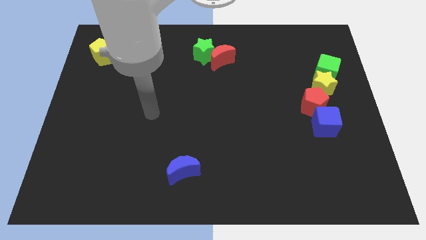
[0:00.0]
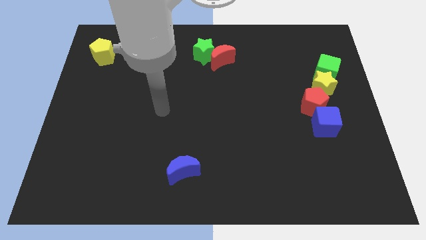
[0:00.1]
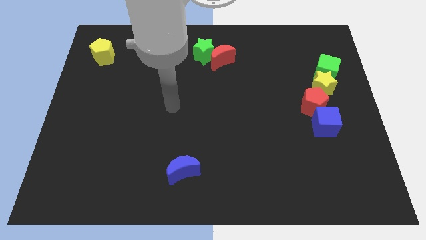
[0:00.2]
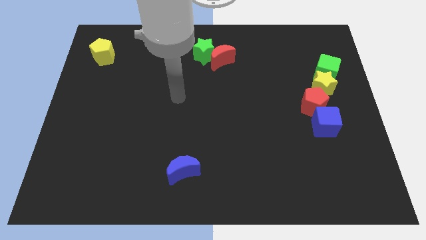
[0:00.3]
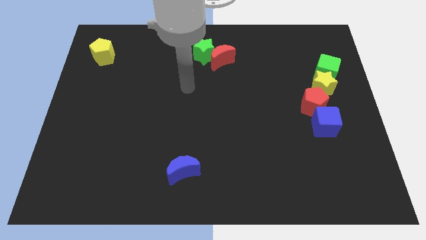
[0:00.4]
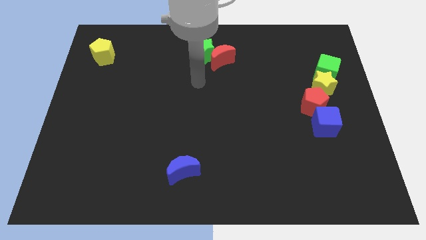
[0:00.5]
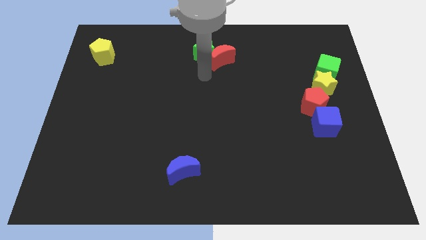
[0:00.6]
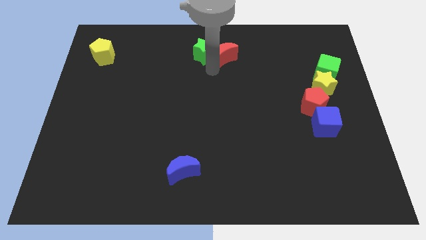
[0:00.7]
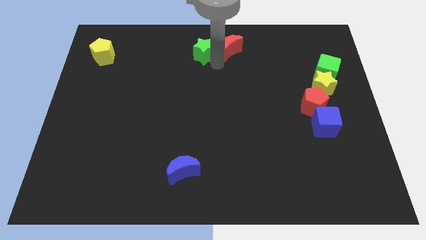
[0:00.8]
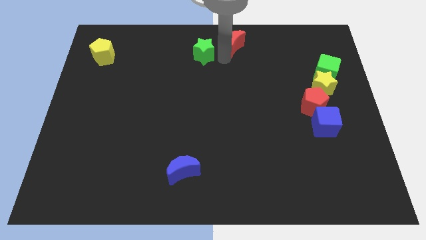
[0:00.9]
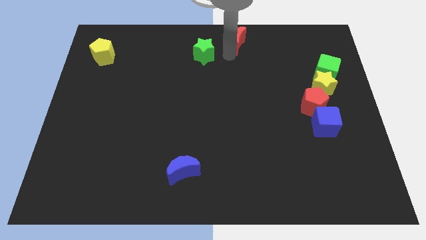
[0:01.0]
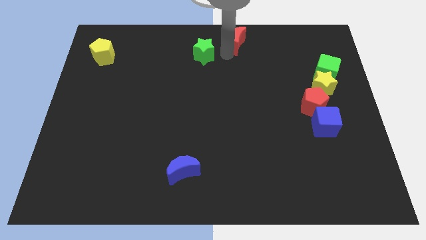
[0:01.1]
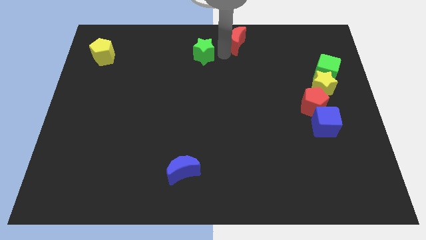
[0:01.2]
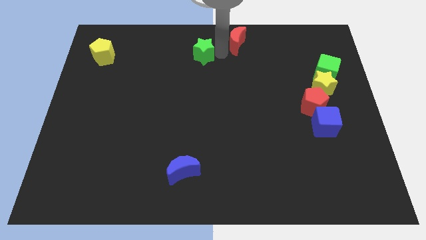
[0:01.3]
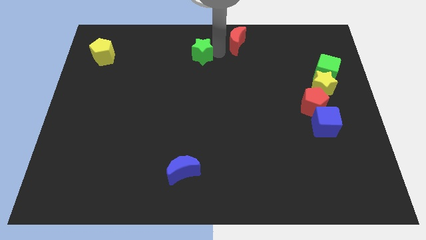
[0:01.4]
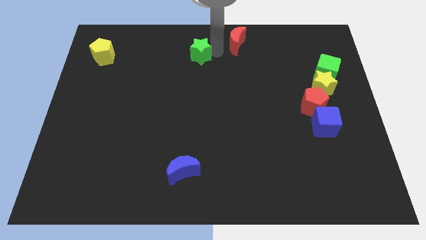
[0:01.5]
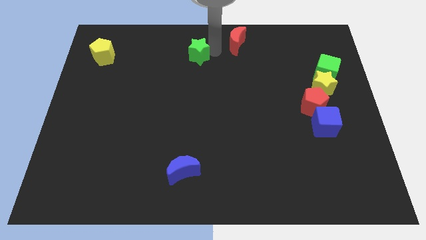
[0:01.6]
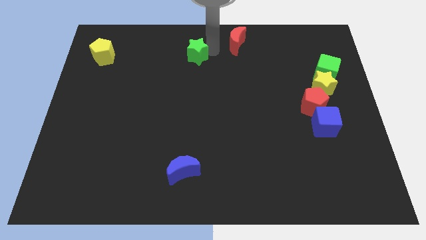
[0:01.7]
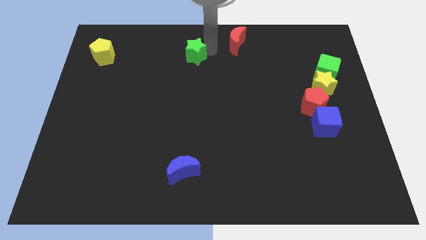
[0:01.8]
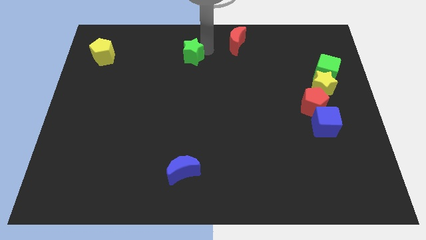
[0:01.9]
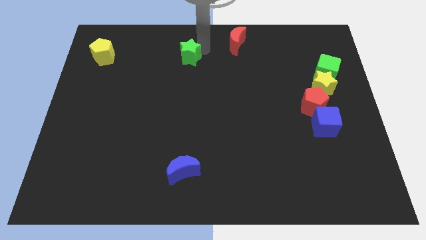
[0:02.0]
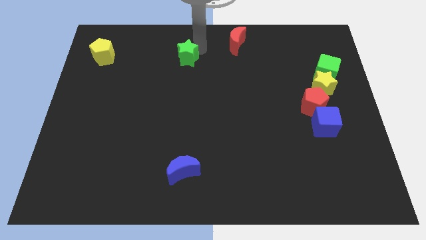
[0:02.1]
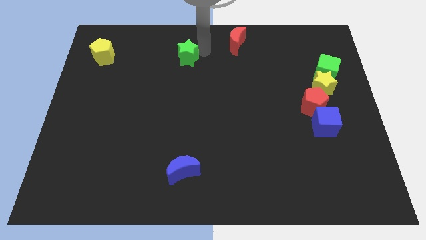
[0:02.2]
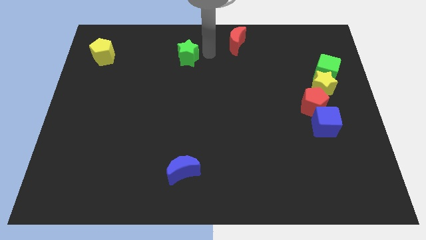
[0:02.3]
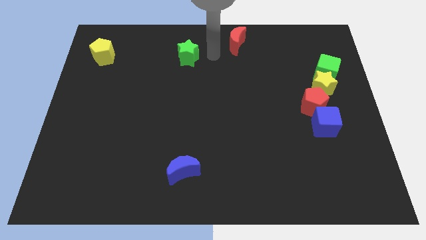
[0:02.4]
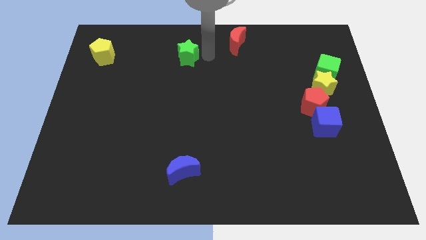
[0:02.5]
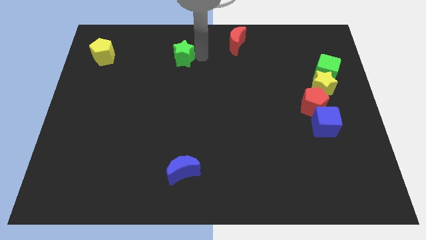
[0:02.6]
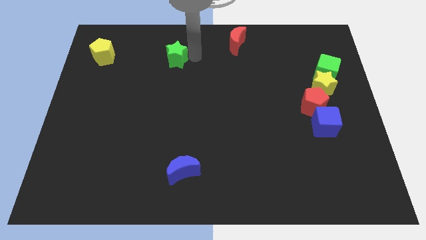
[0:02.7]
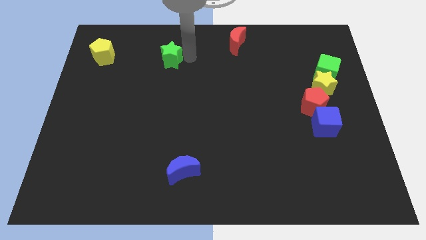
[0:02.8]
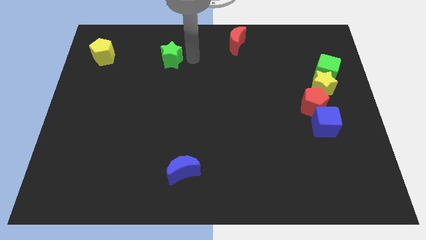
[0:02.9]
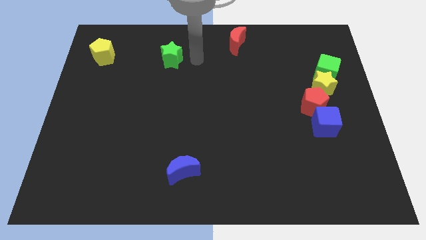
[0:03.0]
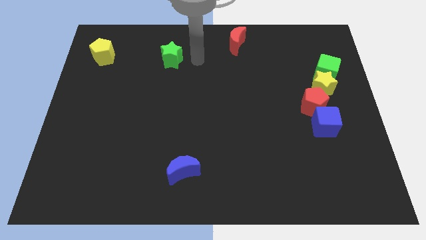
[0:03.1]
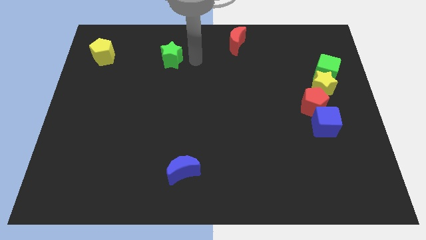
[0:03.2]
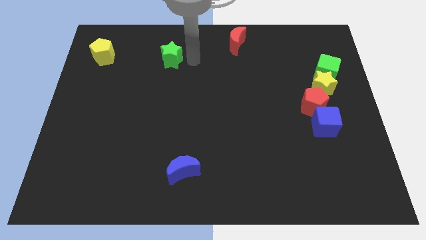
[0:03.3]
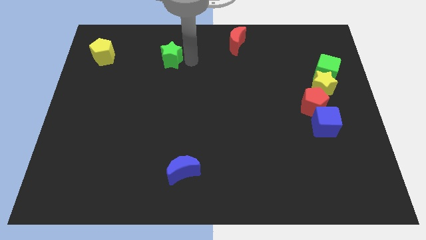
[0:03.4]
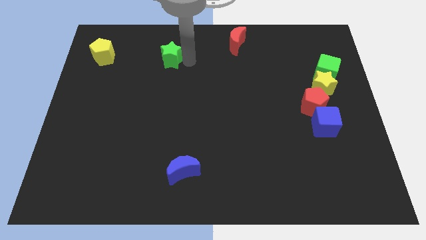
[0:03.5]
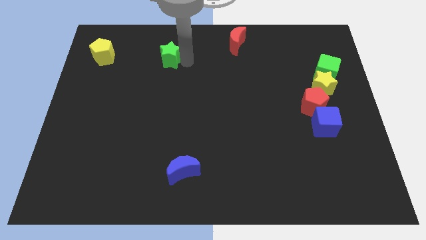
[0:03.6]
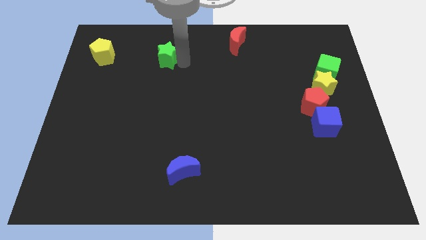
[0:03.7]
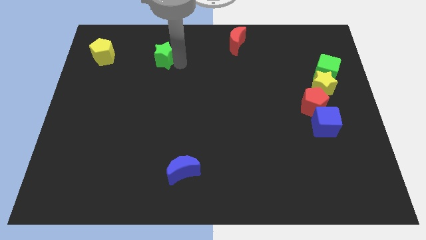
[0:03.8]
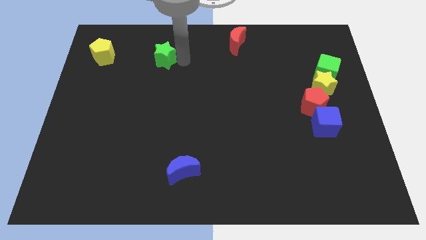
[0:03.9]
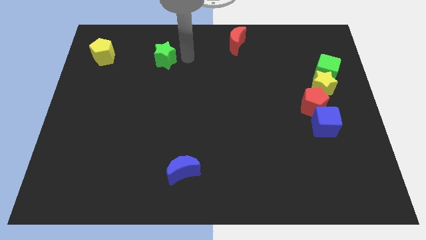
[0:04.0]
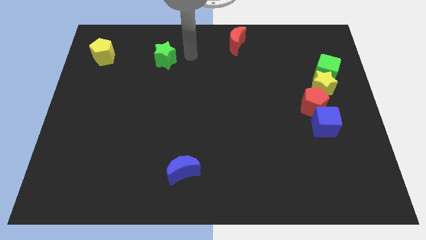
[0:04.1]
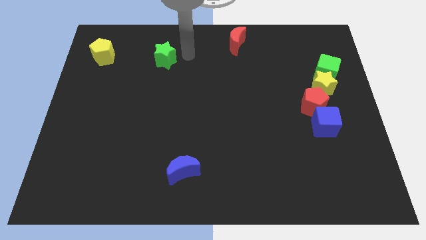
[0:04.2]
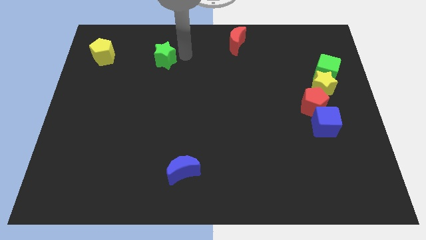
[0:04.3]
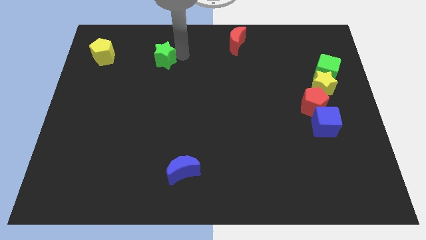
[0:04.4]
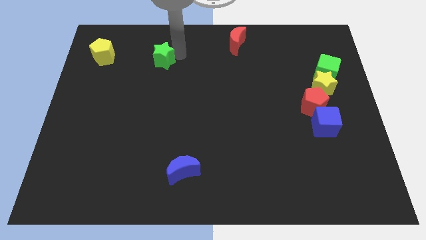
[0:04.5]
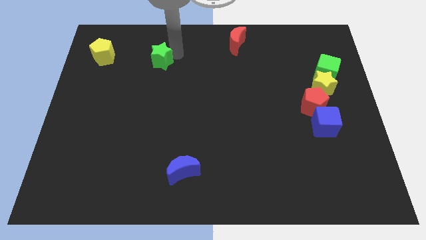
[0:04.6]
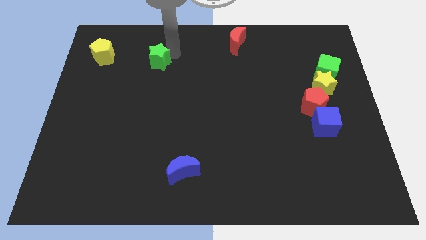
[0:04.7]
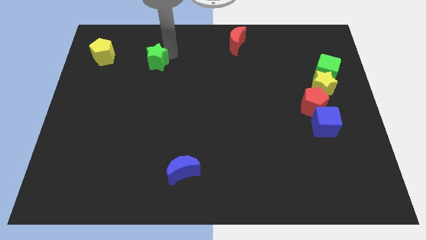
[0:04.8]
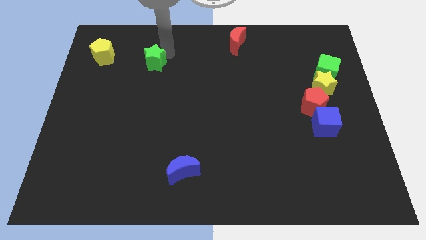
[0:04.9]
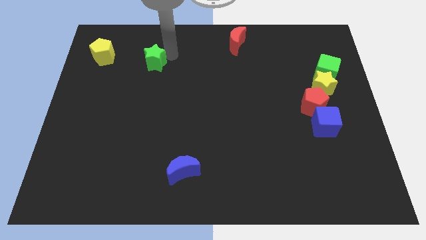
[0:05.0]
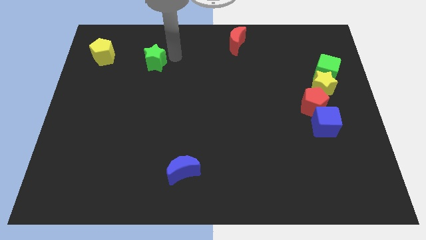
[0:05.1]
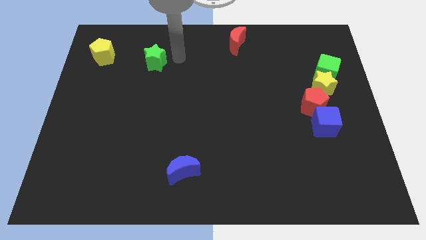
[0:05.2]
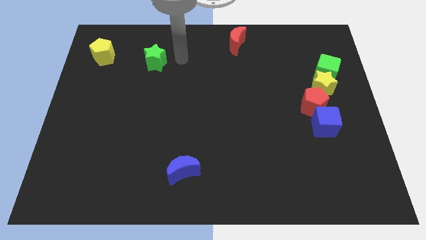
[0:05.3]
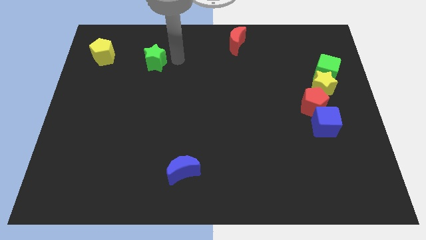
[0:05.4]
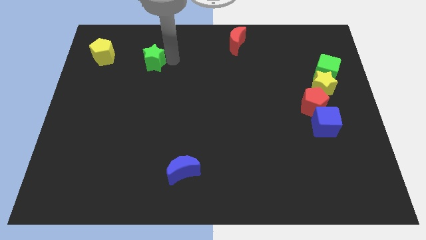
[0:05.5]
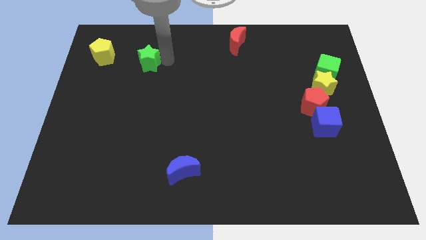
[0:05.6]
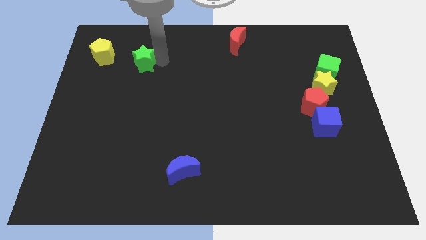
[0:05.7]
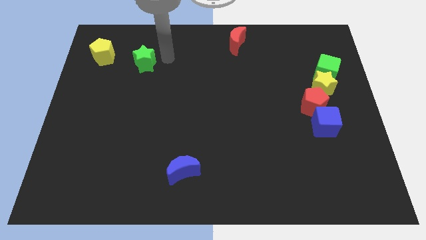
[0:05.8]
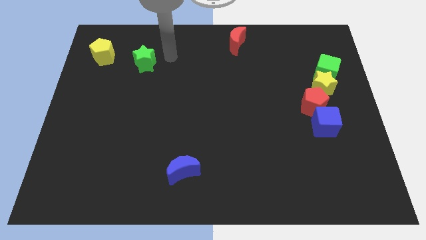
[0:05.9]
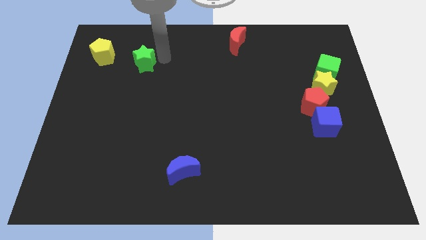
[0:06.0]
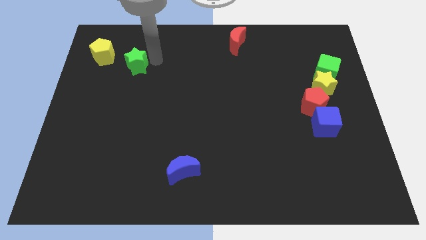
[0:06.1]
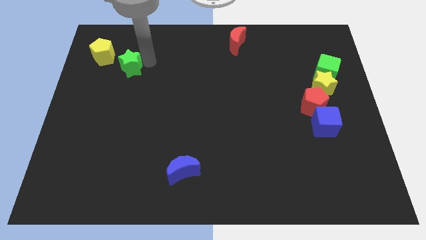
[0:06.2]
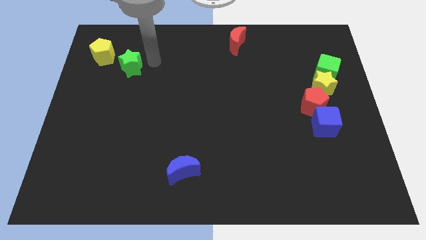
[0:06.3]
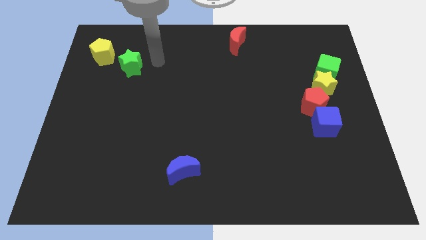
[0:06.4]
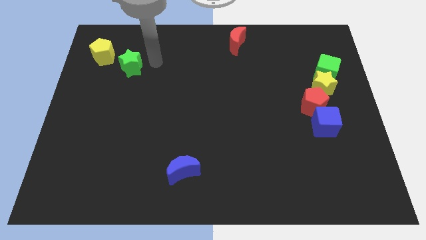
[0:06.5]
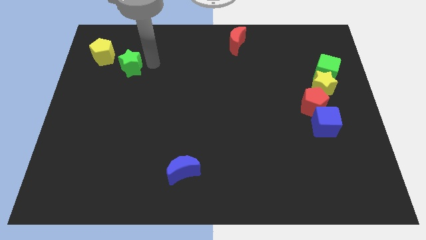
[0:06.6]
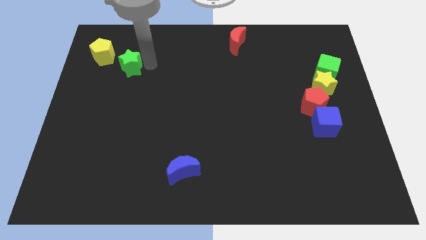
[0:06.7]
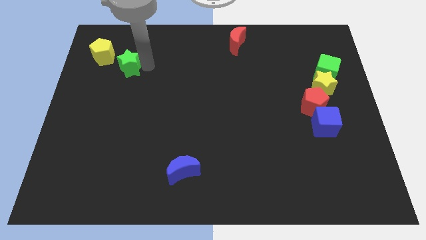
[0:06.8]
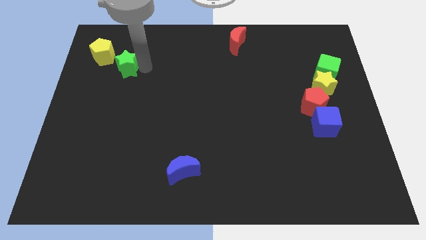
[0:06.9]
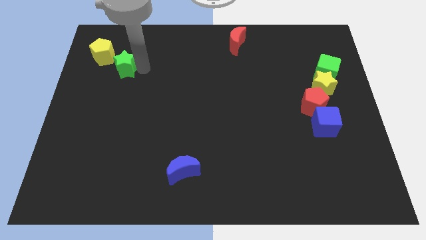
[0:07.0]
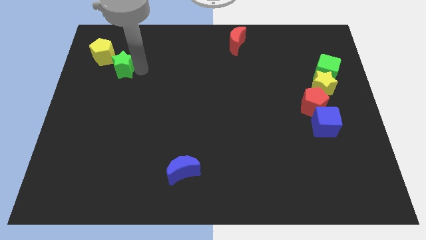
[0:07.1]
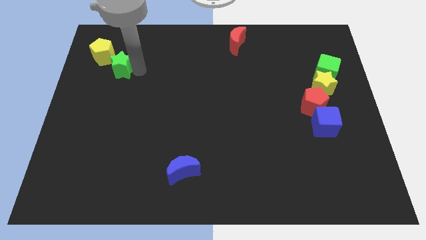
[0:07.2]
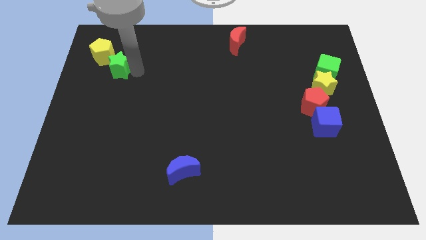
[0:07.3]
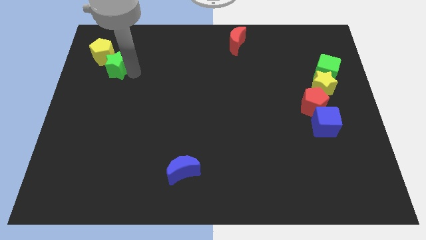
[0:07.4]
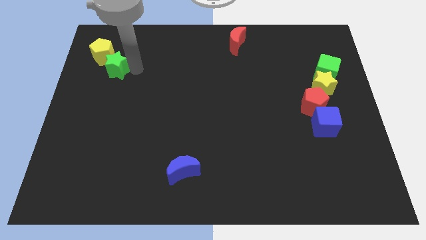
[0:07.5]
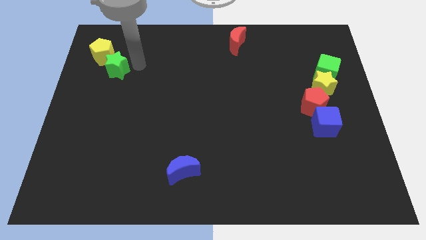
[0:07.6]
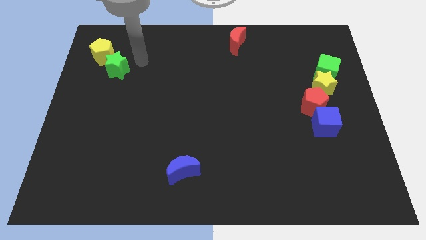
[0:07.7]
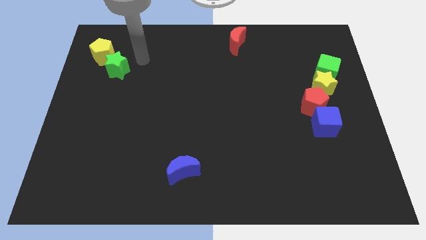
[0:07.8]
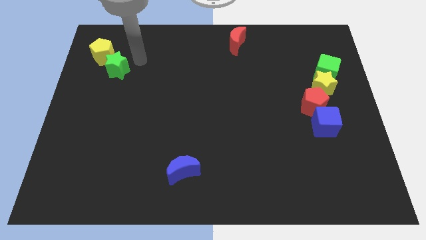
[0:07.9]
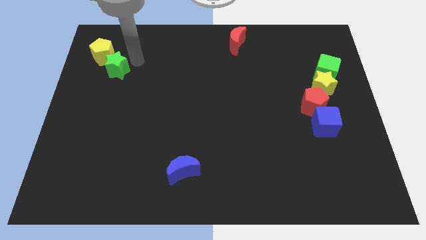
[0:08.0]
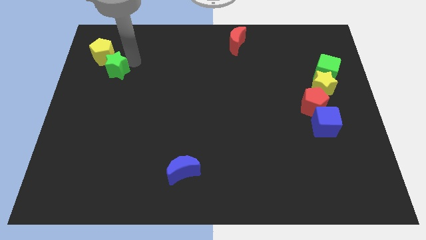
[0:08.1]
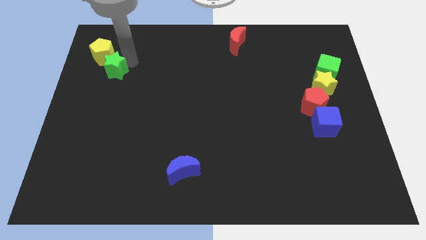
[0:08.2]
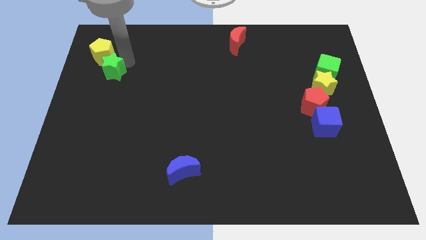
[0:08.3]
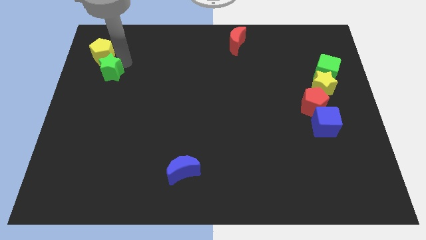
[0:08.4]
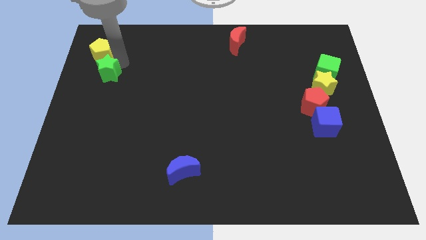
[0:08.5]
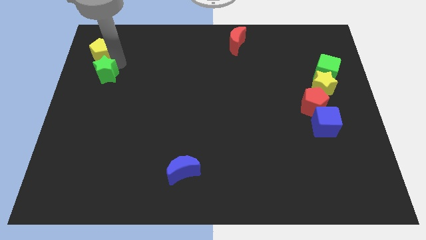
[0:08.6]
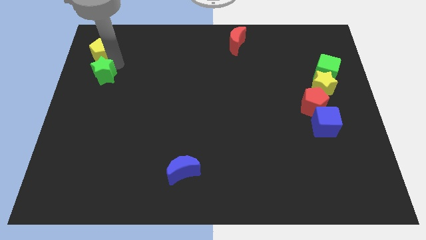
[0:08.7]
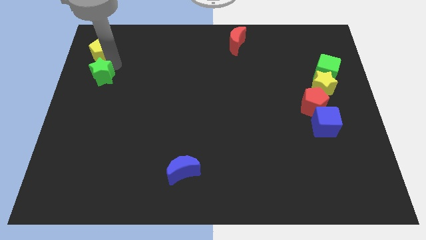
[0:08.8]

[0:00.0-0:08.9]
put the green star to the center left
